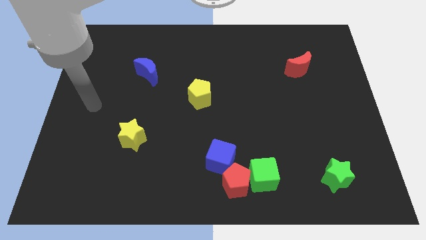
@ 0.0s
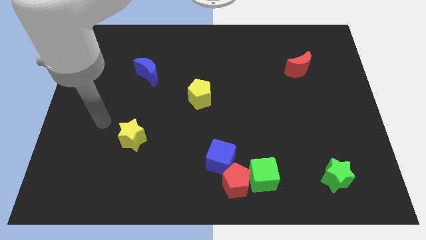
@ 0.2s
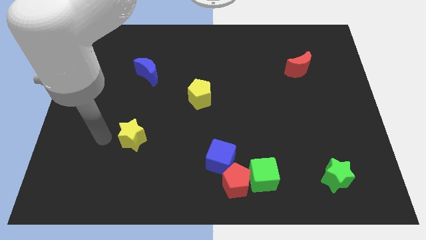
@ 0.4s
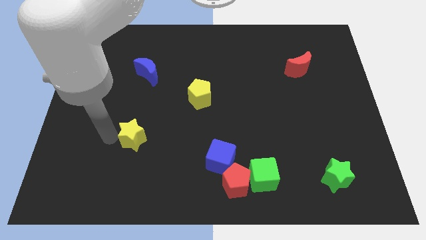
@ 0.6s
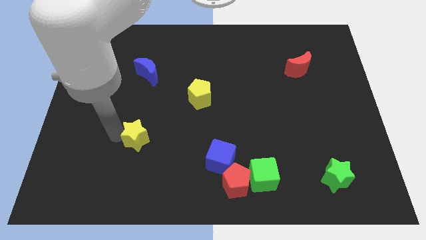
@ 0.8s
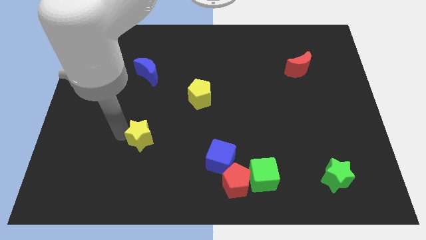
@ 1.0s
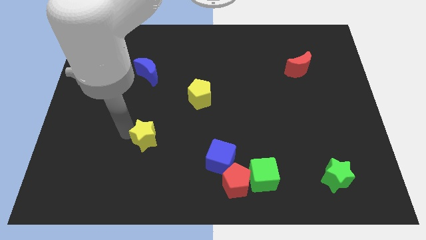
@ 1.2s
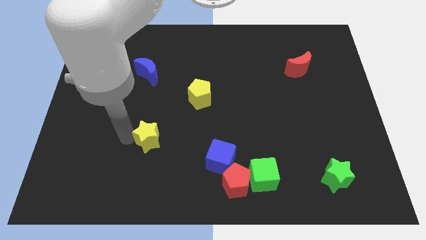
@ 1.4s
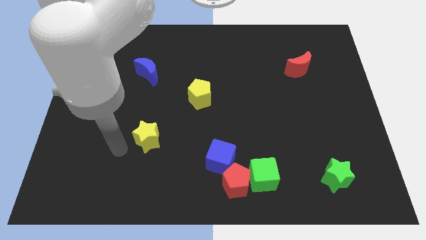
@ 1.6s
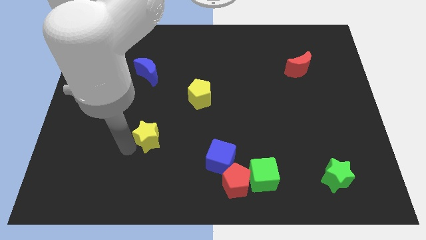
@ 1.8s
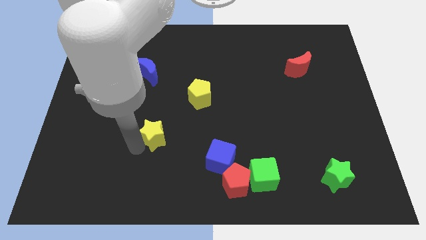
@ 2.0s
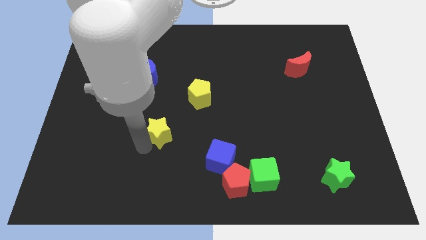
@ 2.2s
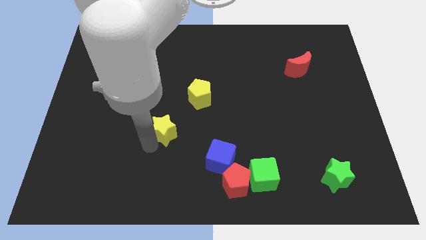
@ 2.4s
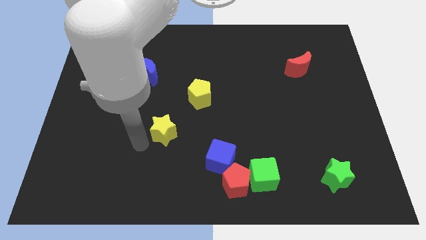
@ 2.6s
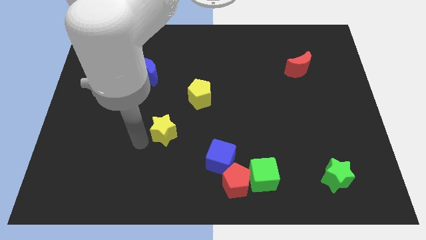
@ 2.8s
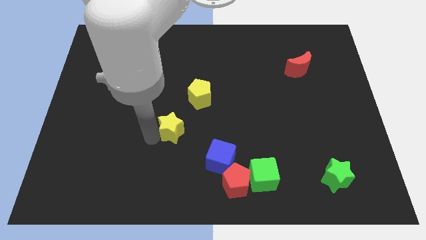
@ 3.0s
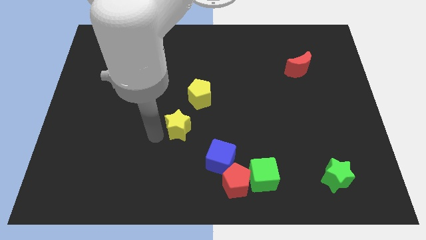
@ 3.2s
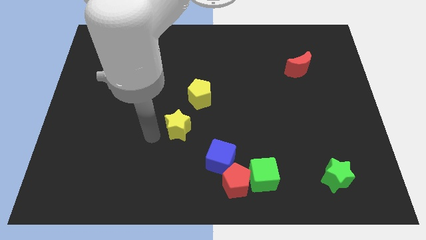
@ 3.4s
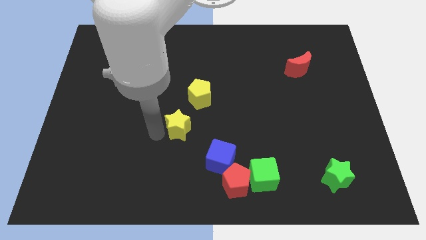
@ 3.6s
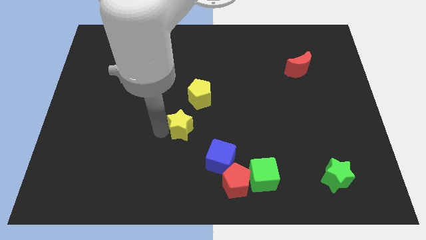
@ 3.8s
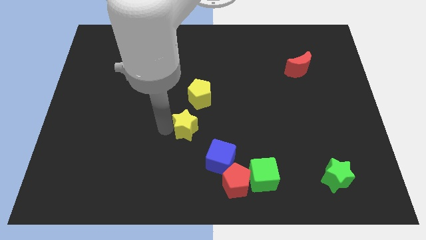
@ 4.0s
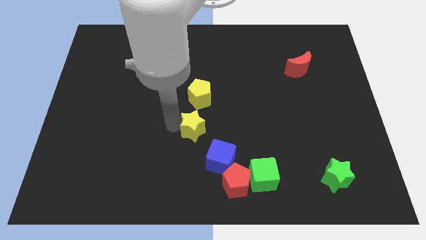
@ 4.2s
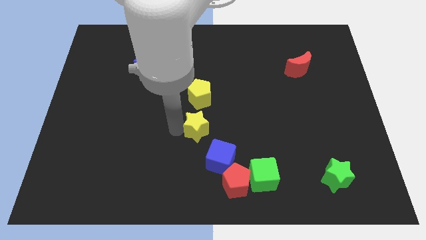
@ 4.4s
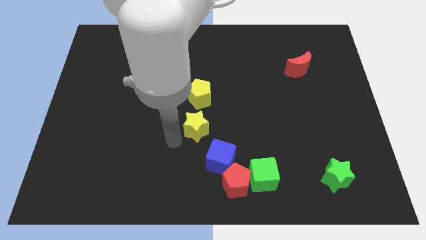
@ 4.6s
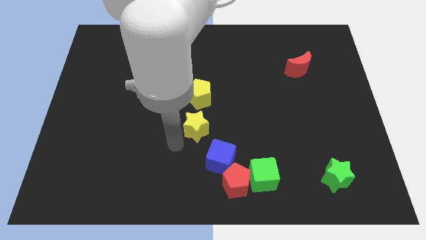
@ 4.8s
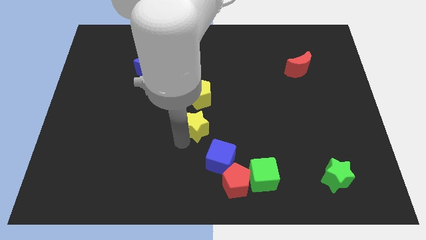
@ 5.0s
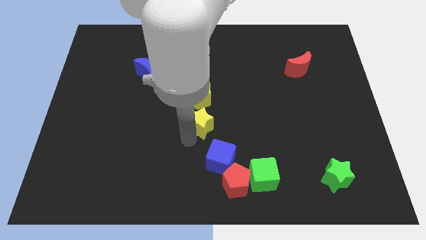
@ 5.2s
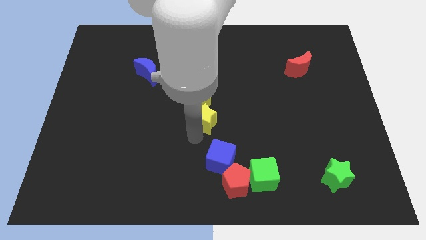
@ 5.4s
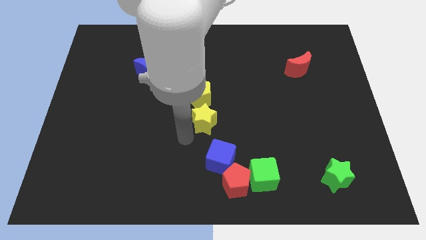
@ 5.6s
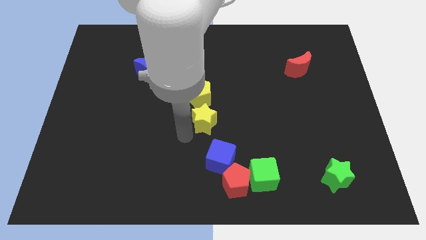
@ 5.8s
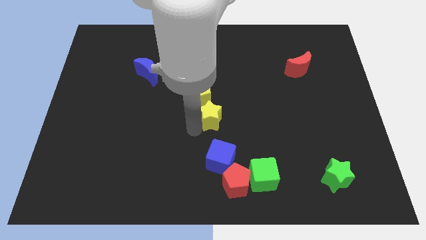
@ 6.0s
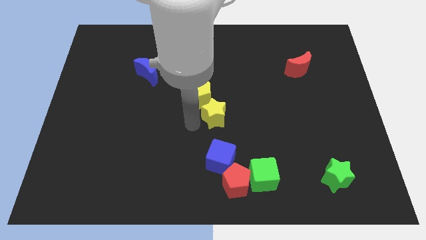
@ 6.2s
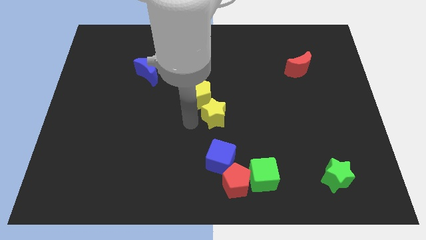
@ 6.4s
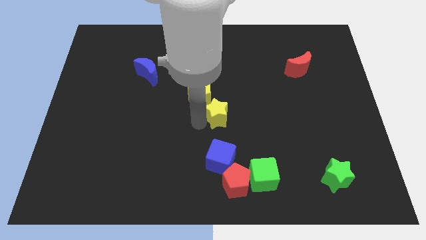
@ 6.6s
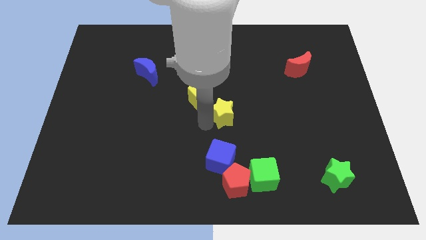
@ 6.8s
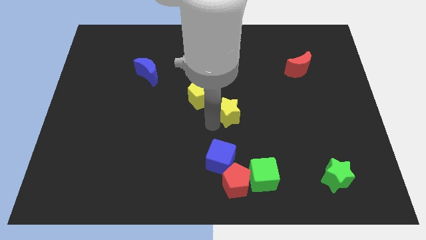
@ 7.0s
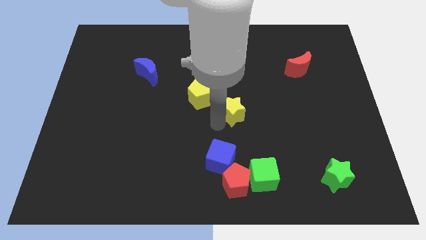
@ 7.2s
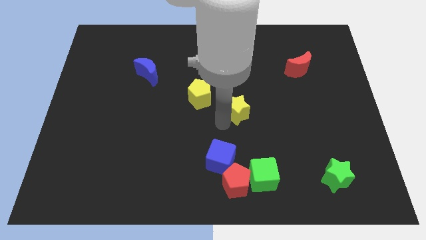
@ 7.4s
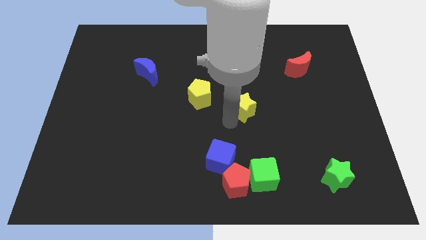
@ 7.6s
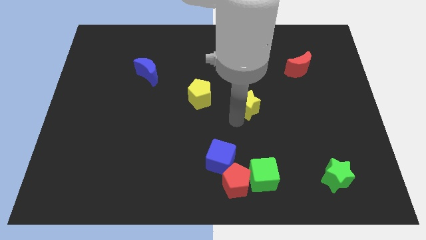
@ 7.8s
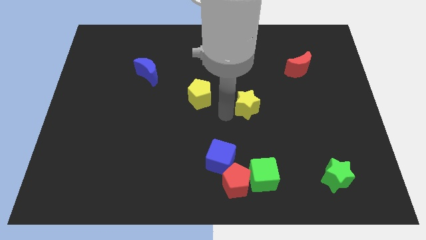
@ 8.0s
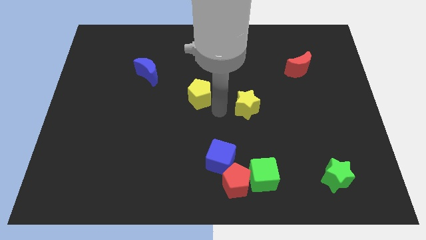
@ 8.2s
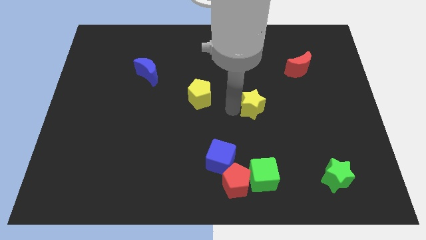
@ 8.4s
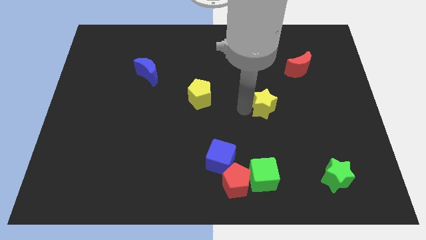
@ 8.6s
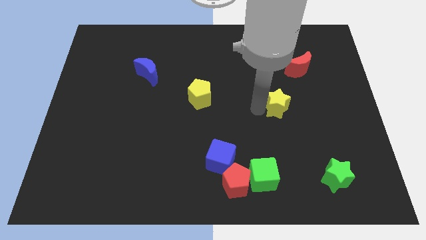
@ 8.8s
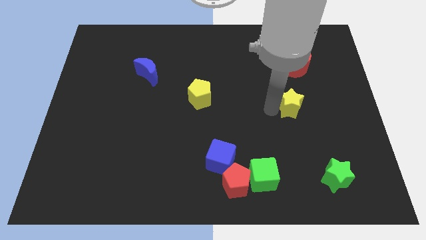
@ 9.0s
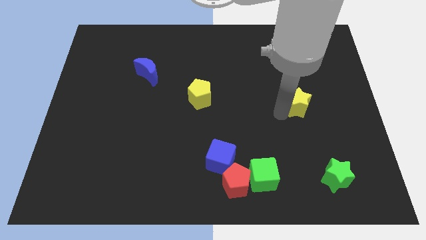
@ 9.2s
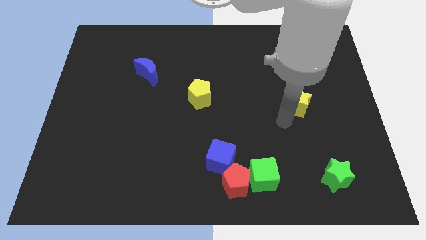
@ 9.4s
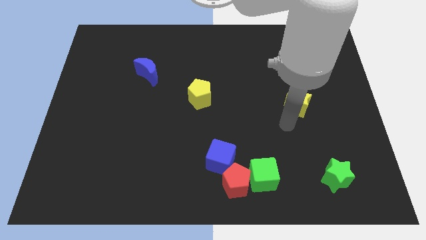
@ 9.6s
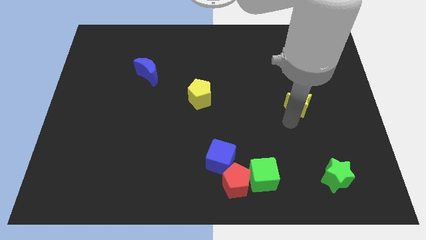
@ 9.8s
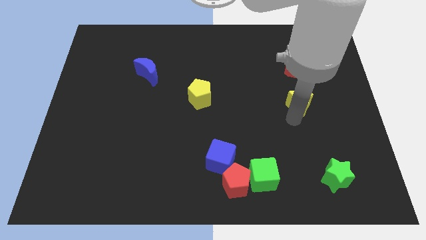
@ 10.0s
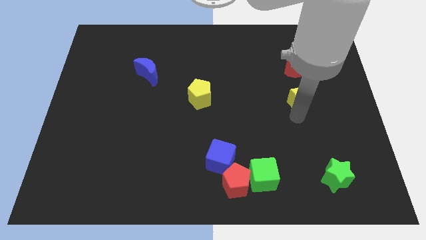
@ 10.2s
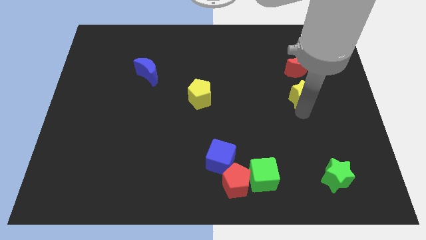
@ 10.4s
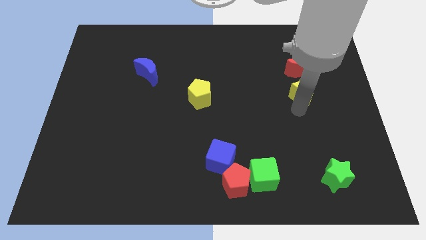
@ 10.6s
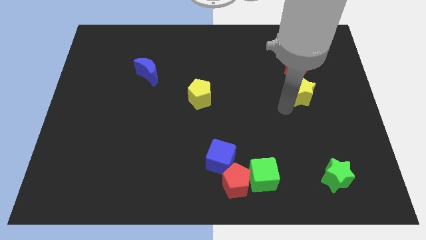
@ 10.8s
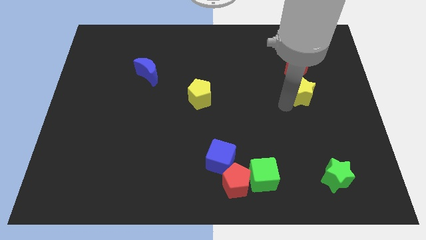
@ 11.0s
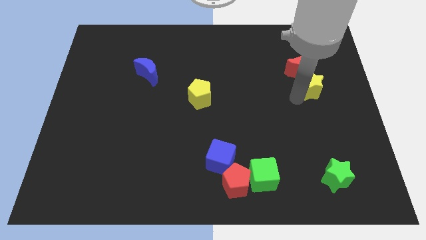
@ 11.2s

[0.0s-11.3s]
move the yellow star diagonally down and to the right of the red moon

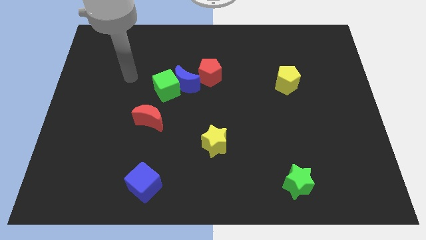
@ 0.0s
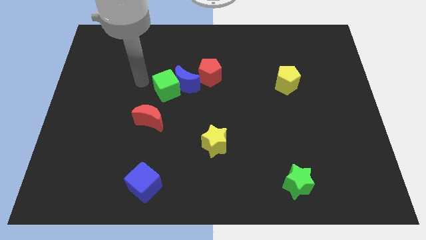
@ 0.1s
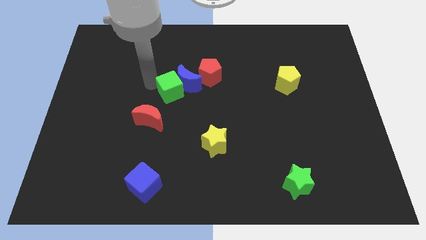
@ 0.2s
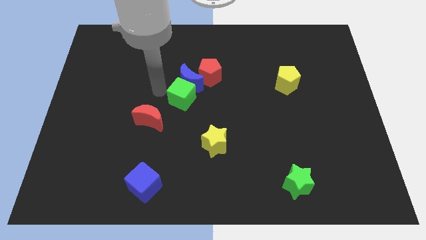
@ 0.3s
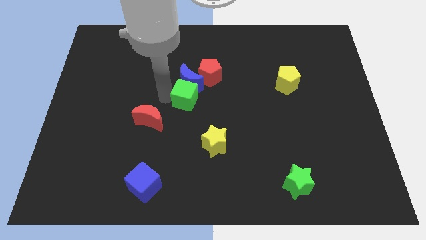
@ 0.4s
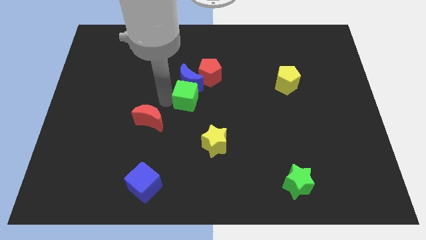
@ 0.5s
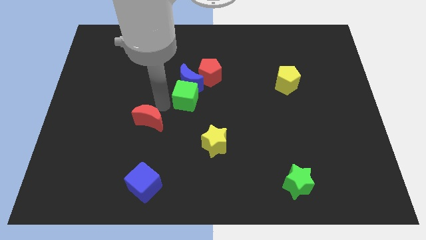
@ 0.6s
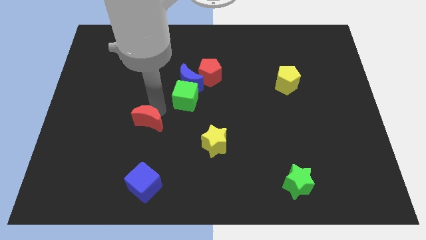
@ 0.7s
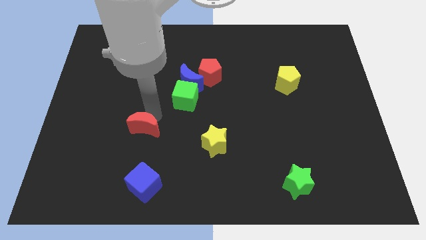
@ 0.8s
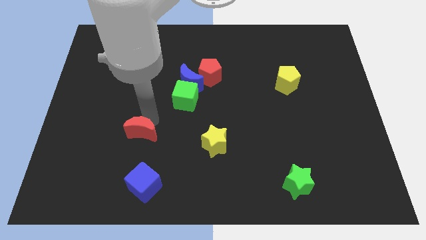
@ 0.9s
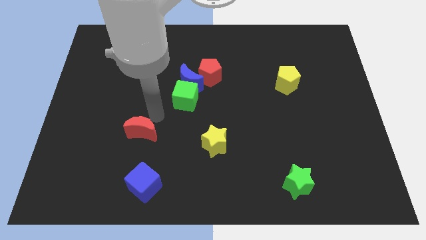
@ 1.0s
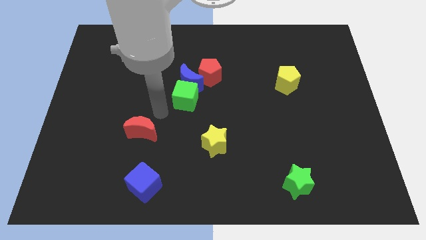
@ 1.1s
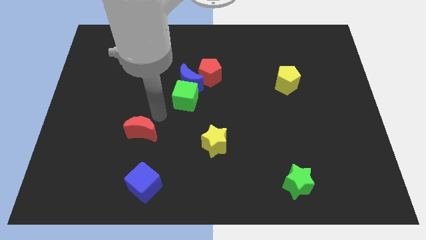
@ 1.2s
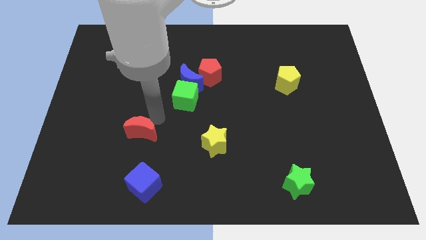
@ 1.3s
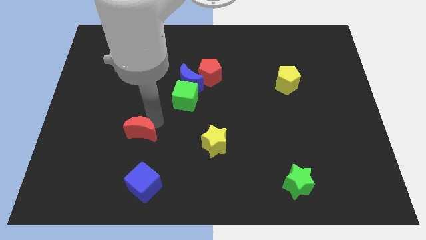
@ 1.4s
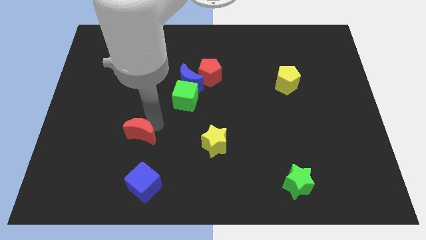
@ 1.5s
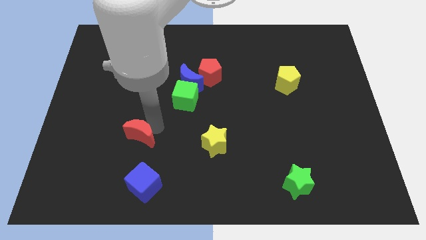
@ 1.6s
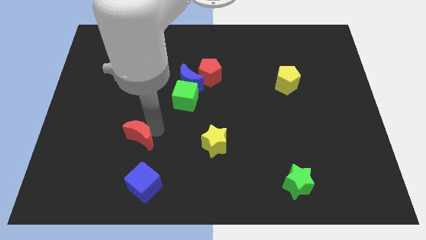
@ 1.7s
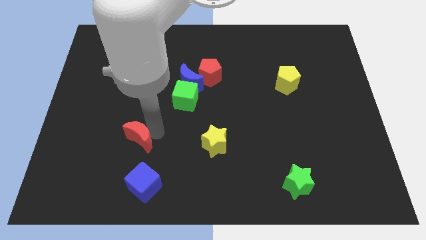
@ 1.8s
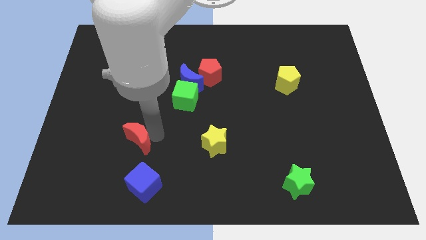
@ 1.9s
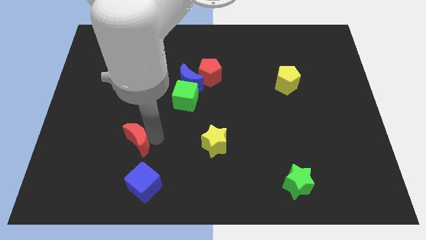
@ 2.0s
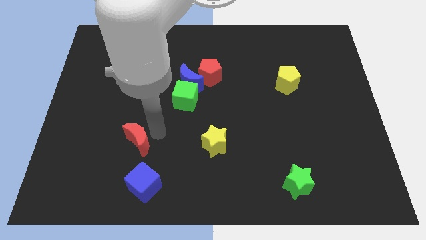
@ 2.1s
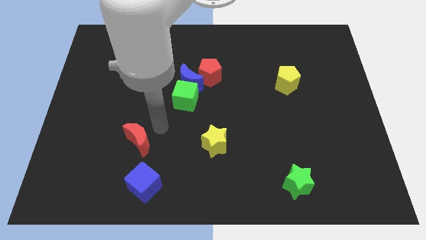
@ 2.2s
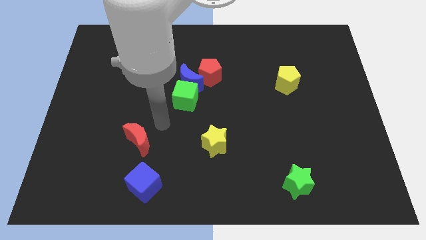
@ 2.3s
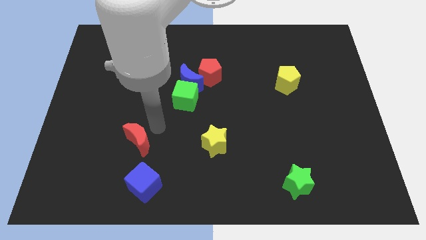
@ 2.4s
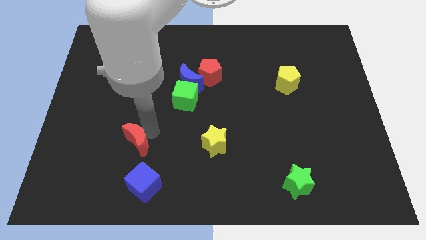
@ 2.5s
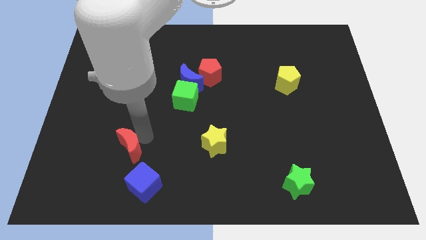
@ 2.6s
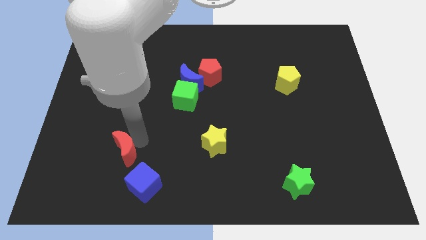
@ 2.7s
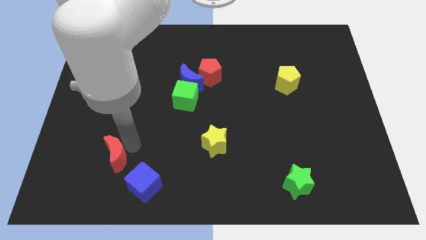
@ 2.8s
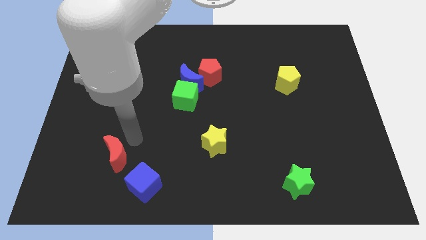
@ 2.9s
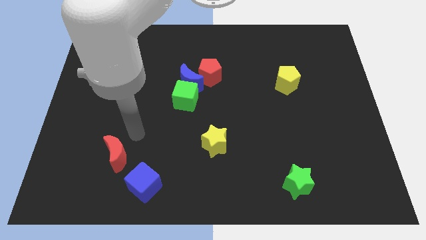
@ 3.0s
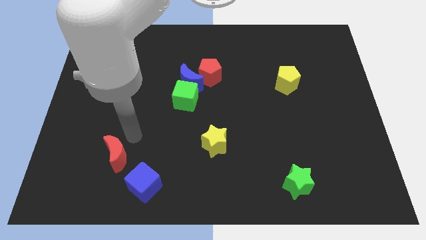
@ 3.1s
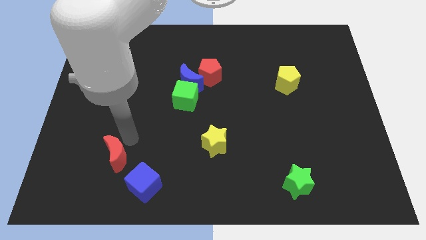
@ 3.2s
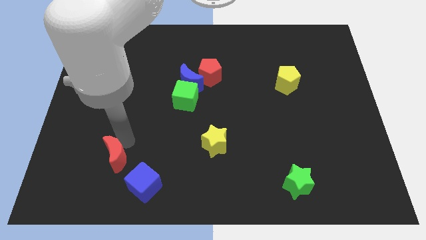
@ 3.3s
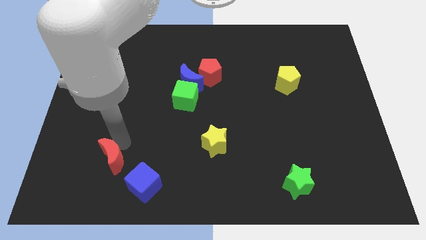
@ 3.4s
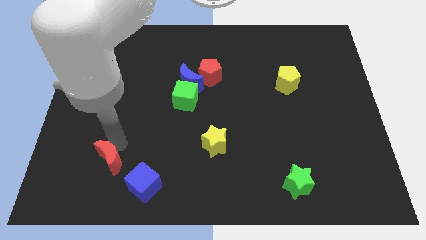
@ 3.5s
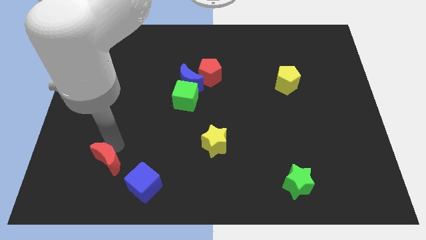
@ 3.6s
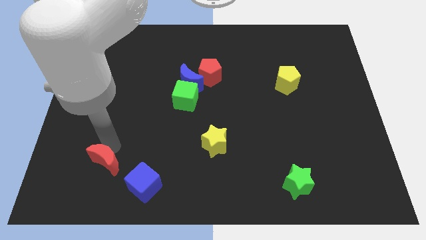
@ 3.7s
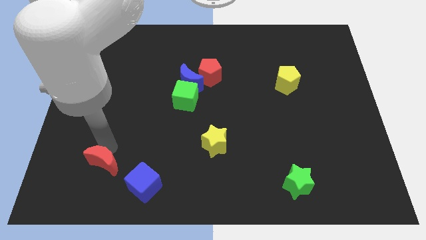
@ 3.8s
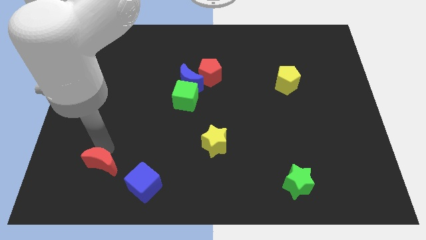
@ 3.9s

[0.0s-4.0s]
put the red moon to the left side of the blue cube
